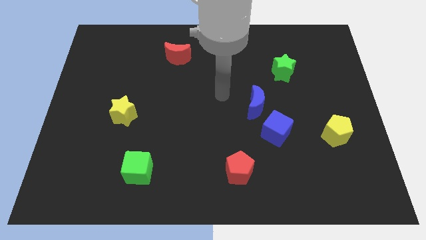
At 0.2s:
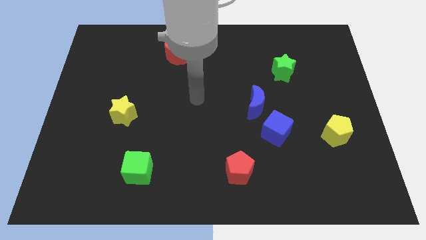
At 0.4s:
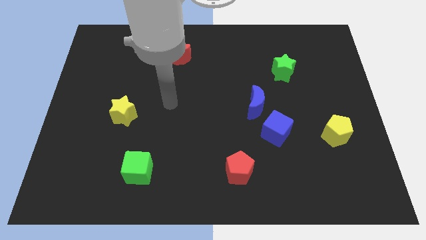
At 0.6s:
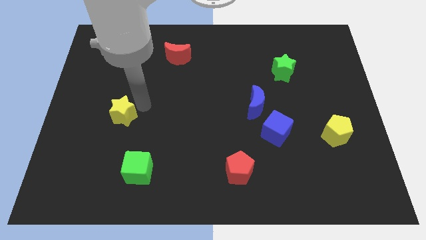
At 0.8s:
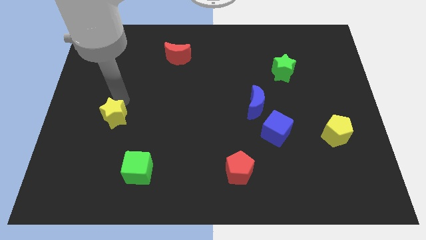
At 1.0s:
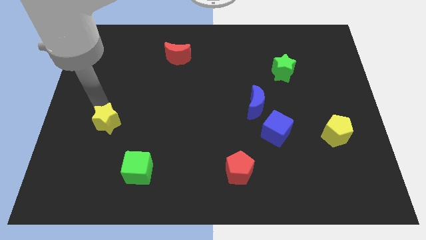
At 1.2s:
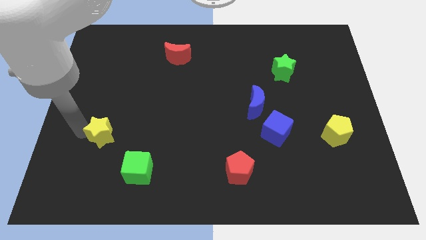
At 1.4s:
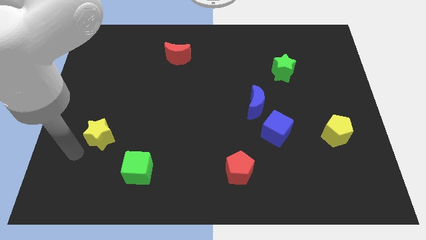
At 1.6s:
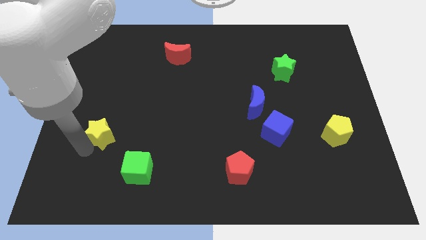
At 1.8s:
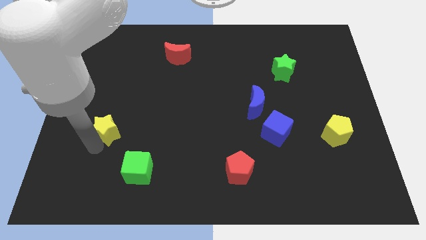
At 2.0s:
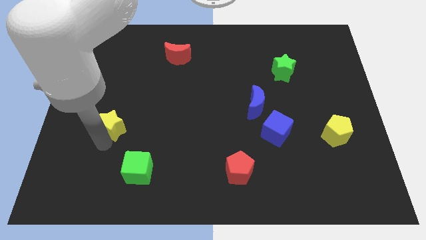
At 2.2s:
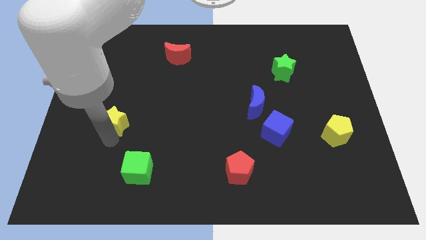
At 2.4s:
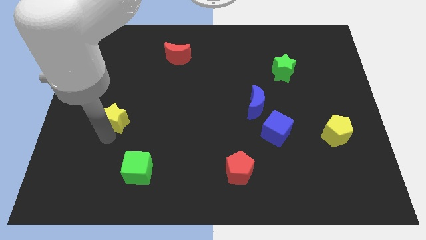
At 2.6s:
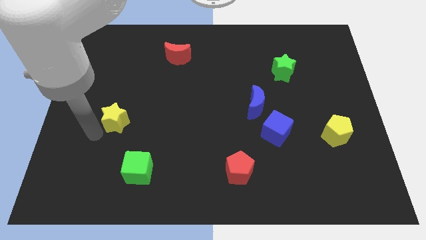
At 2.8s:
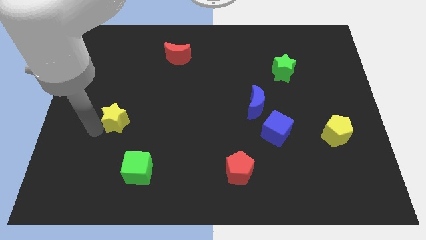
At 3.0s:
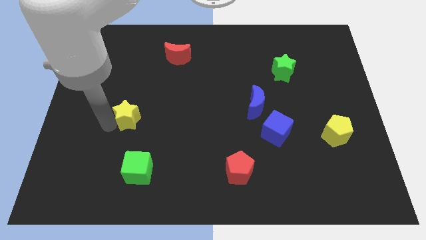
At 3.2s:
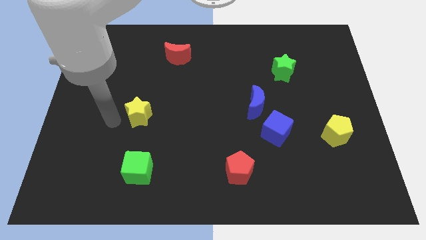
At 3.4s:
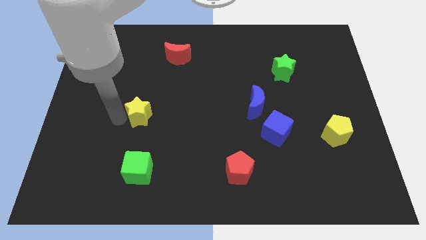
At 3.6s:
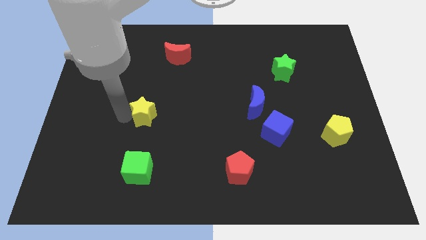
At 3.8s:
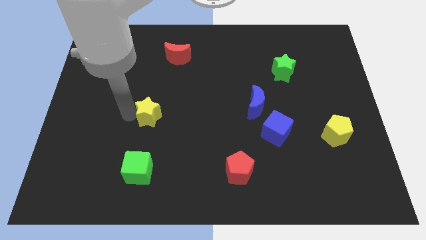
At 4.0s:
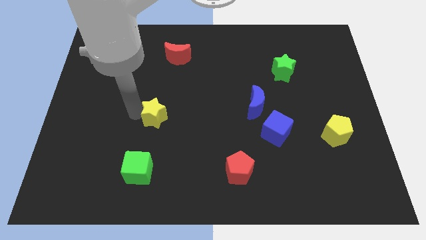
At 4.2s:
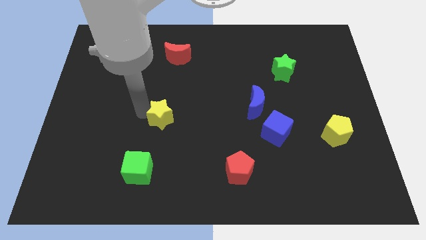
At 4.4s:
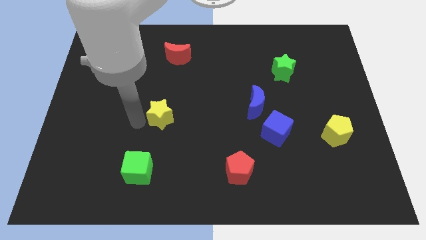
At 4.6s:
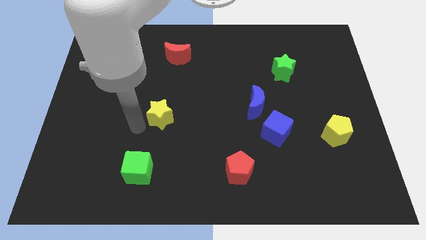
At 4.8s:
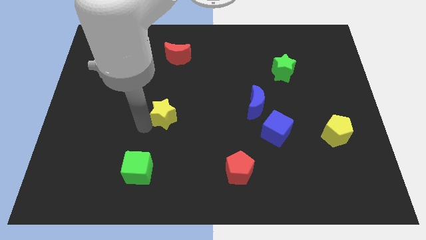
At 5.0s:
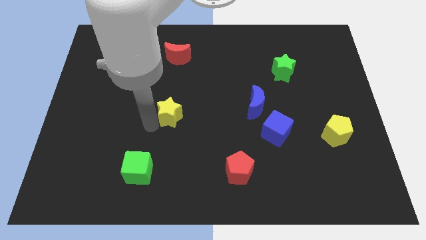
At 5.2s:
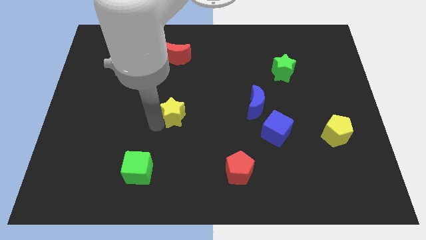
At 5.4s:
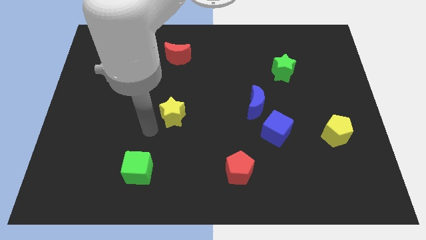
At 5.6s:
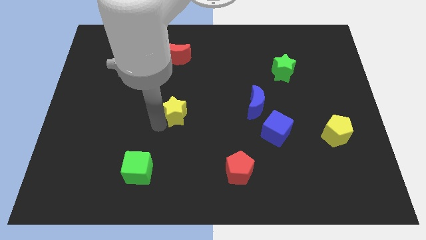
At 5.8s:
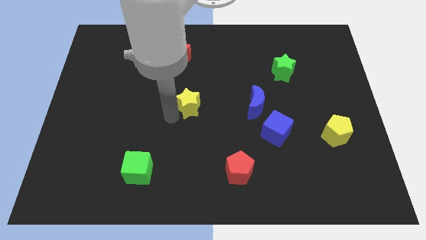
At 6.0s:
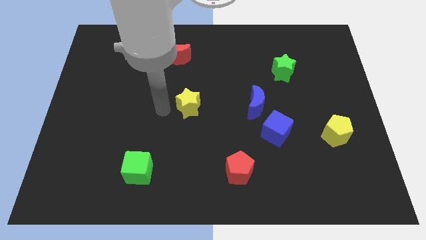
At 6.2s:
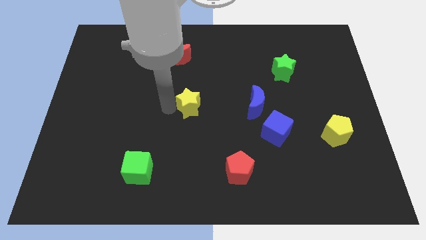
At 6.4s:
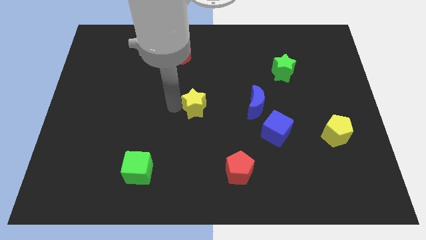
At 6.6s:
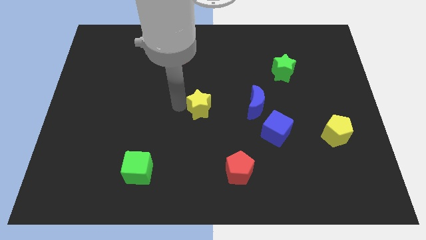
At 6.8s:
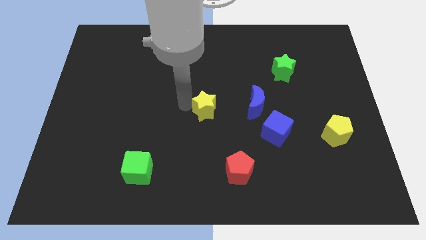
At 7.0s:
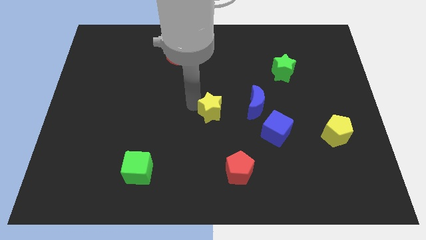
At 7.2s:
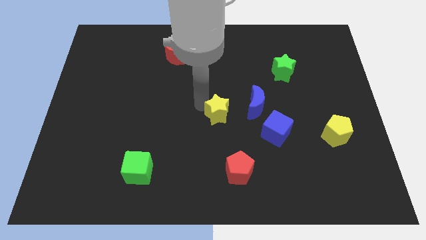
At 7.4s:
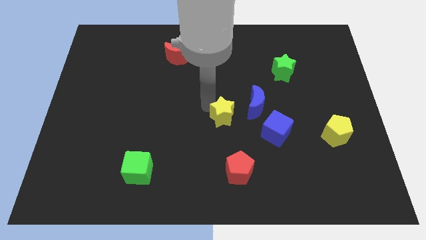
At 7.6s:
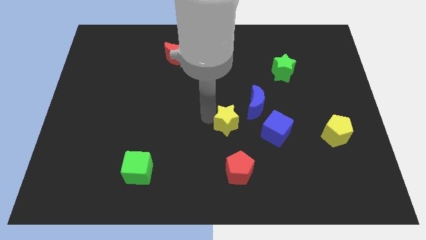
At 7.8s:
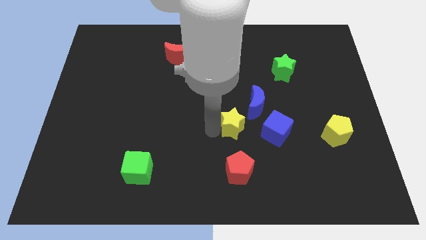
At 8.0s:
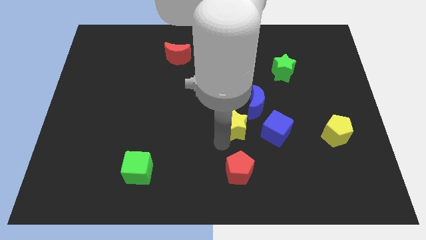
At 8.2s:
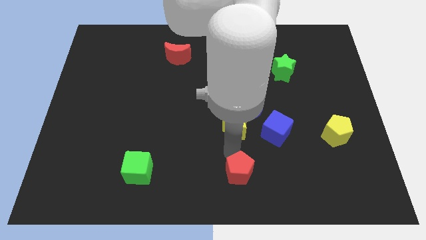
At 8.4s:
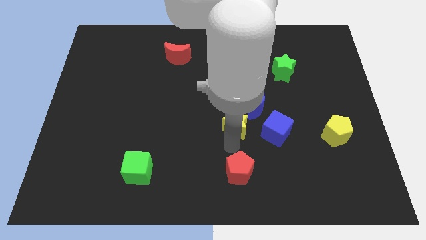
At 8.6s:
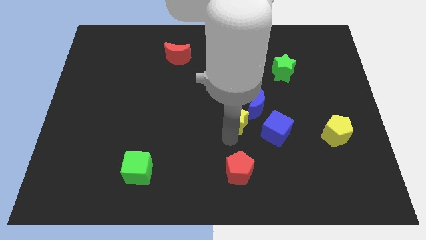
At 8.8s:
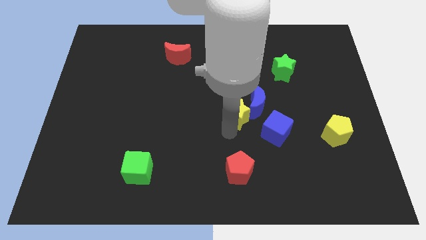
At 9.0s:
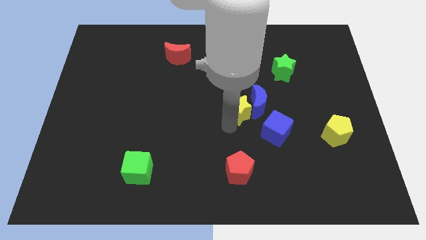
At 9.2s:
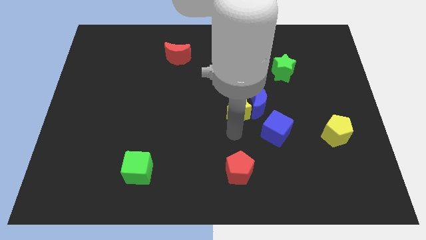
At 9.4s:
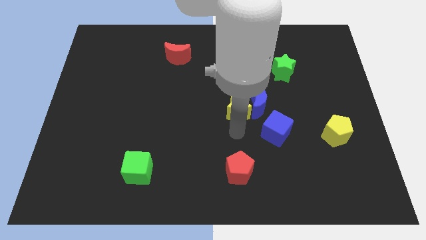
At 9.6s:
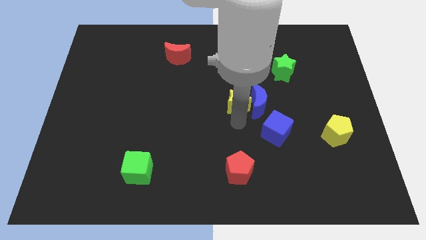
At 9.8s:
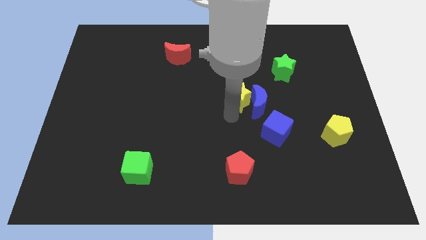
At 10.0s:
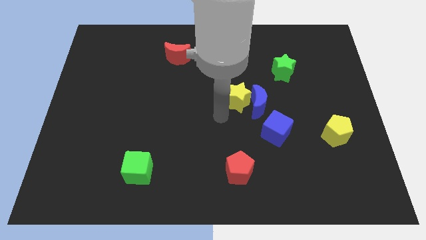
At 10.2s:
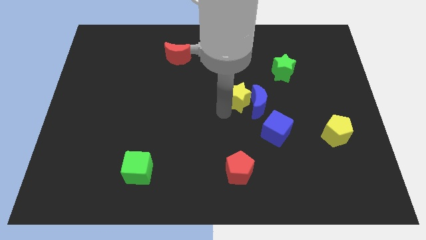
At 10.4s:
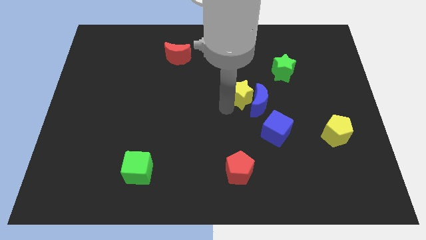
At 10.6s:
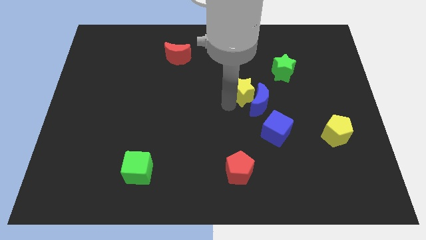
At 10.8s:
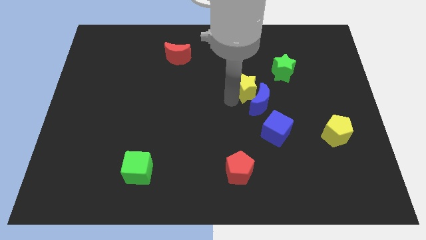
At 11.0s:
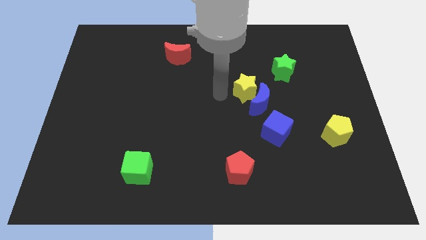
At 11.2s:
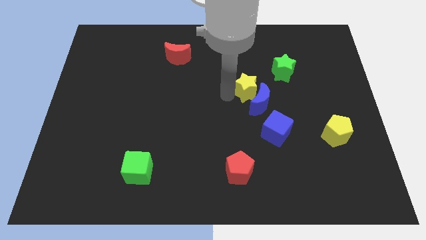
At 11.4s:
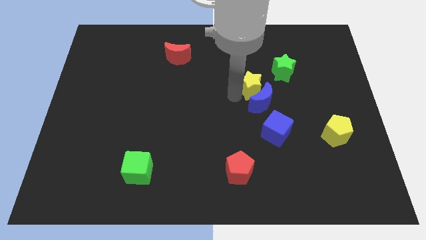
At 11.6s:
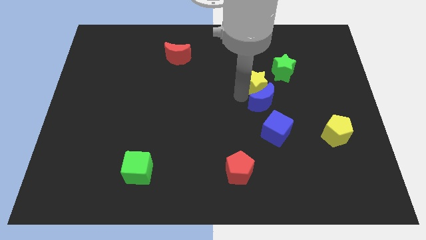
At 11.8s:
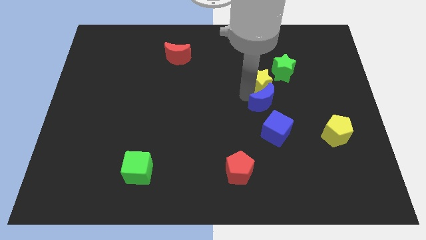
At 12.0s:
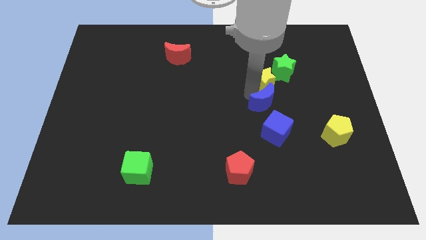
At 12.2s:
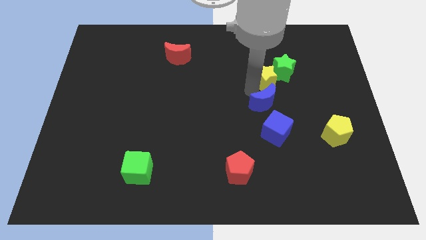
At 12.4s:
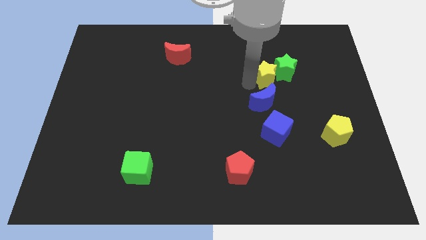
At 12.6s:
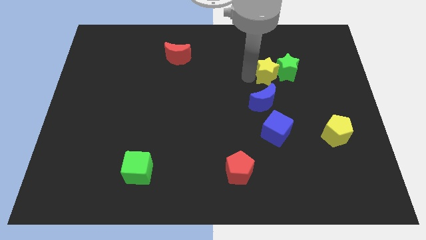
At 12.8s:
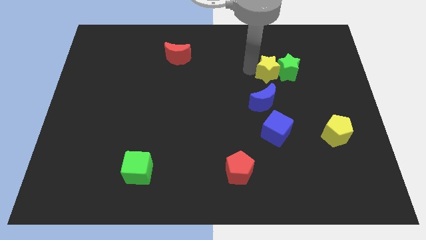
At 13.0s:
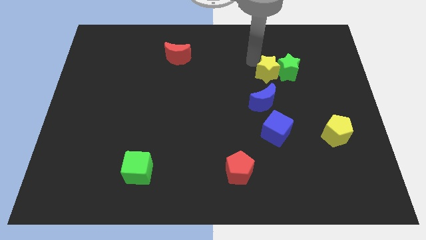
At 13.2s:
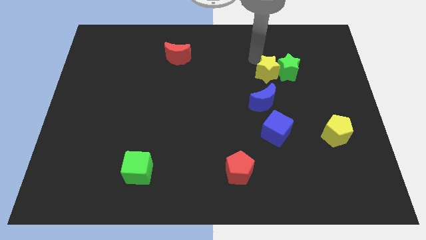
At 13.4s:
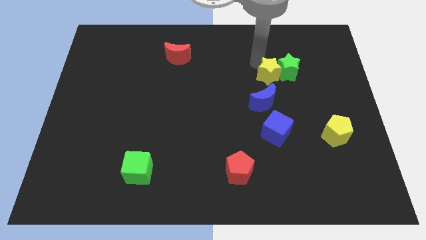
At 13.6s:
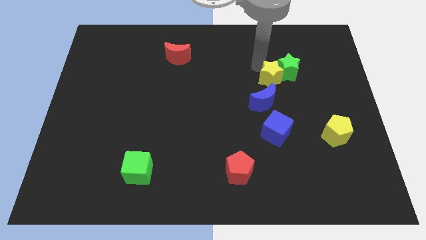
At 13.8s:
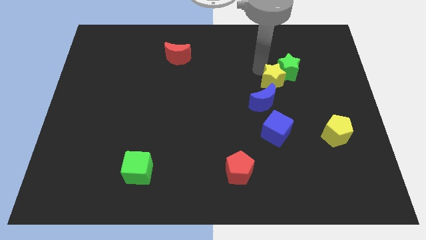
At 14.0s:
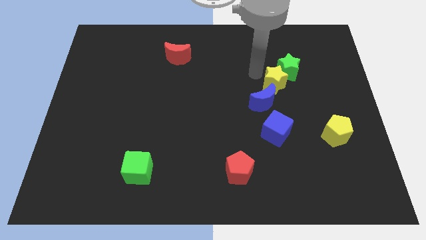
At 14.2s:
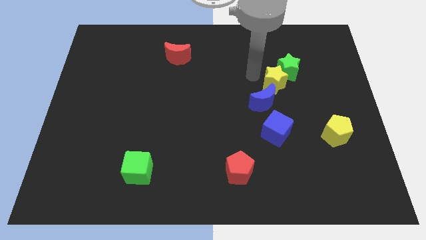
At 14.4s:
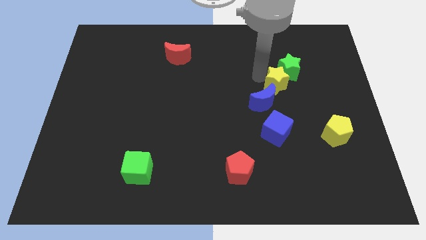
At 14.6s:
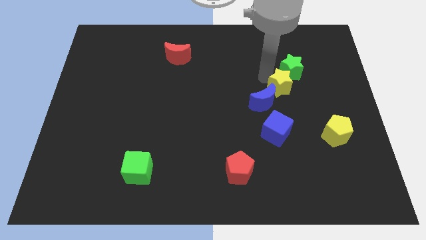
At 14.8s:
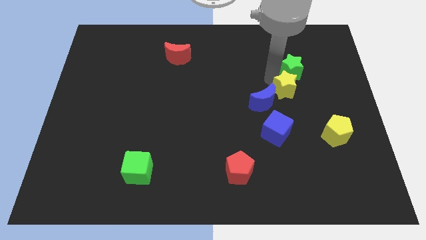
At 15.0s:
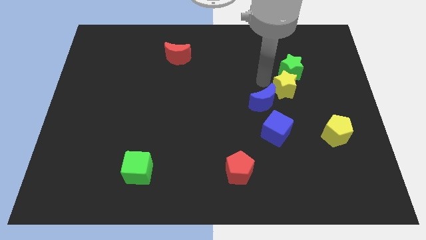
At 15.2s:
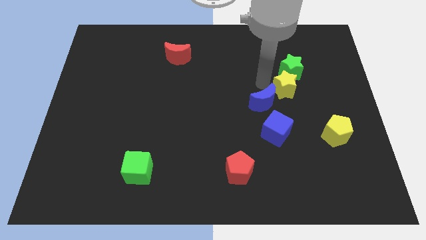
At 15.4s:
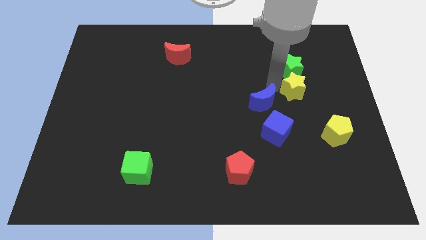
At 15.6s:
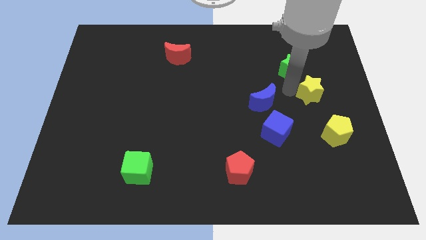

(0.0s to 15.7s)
push the yellow star to the top of the yellow pentagon
